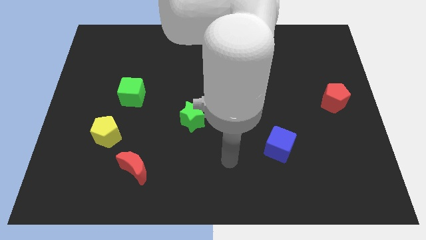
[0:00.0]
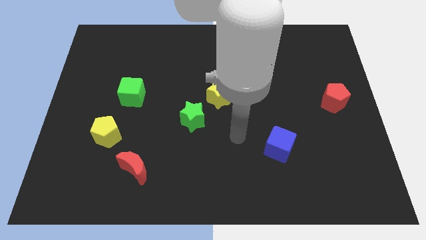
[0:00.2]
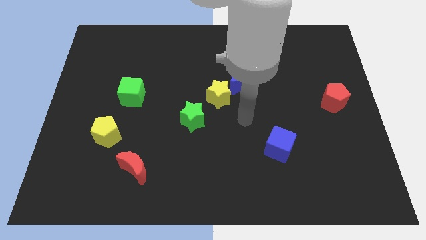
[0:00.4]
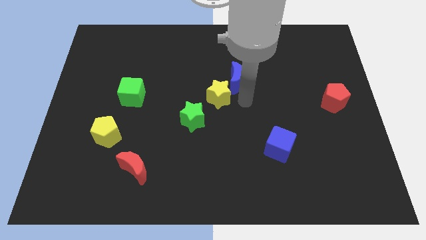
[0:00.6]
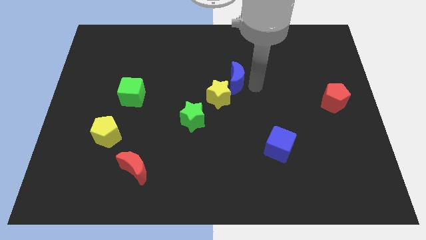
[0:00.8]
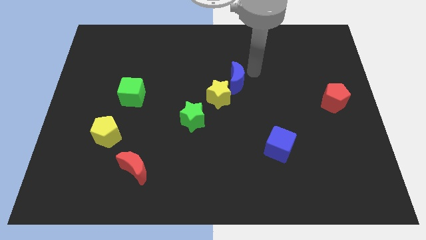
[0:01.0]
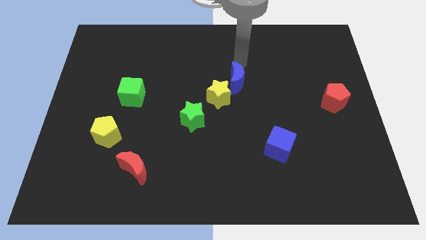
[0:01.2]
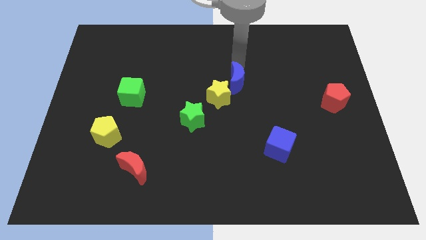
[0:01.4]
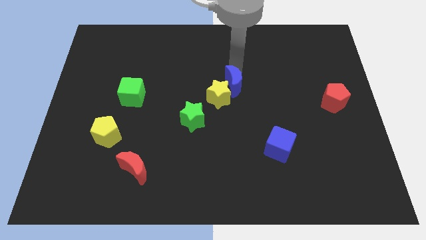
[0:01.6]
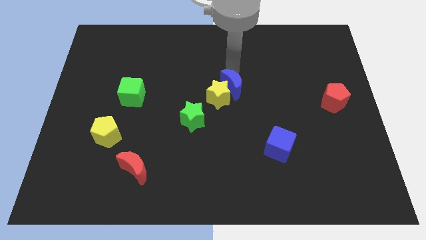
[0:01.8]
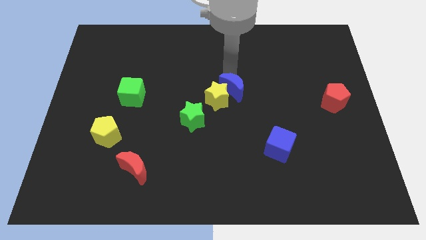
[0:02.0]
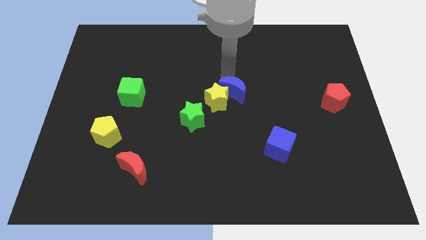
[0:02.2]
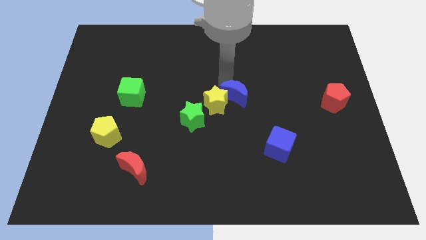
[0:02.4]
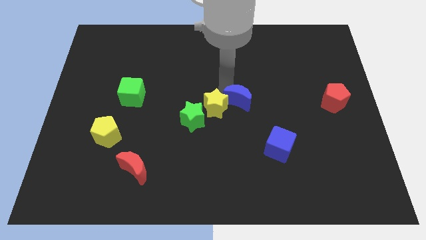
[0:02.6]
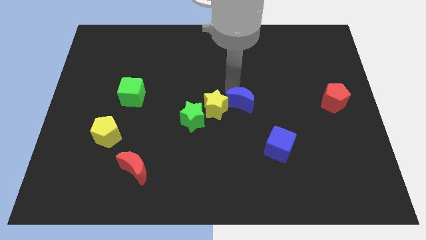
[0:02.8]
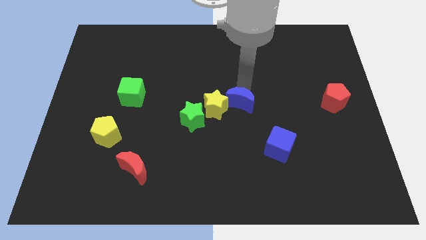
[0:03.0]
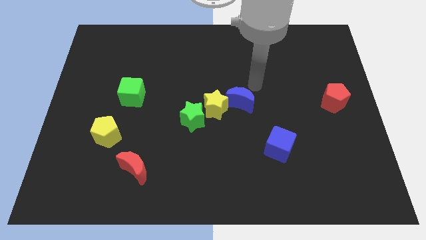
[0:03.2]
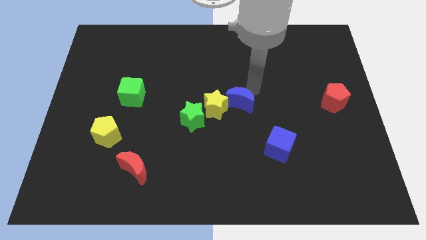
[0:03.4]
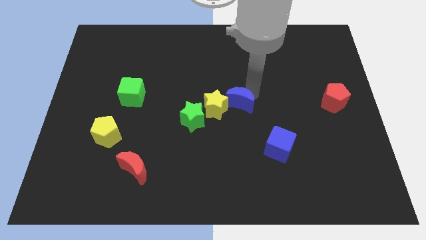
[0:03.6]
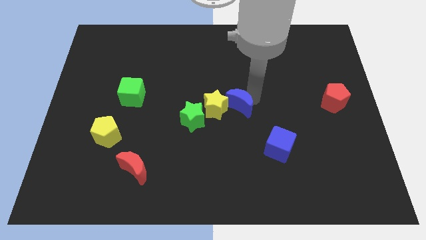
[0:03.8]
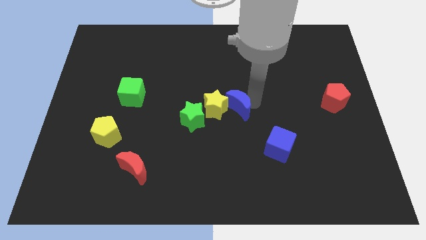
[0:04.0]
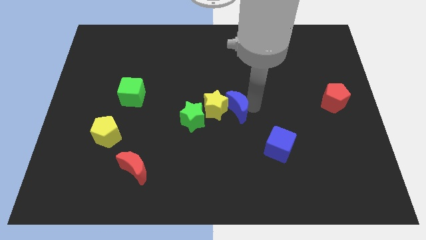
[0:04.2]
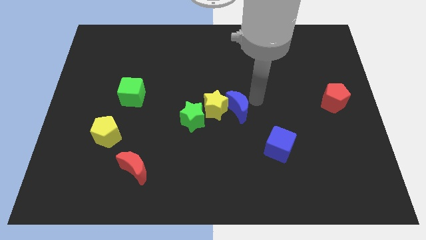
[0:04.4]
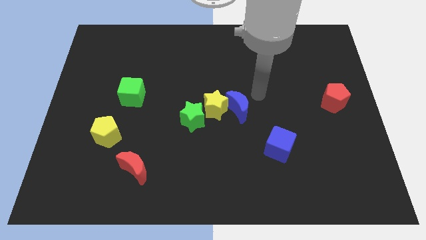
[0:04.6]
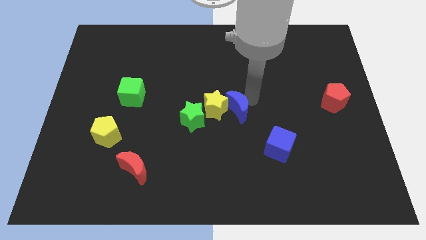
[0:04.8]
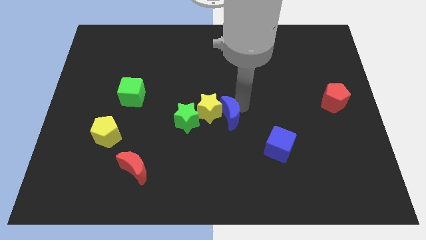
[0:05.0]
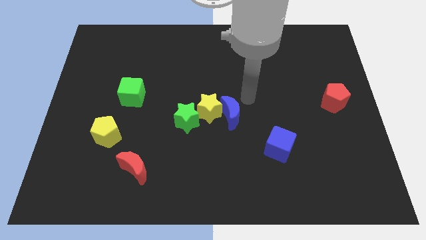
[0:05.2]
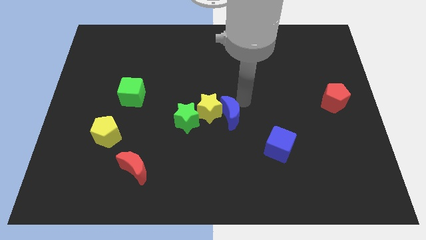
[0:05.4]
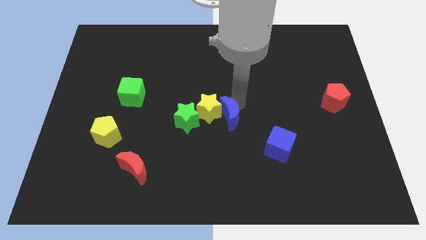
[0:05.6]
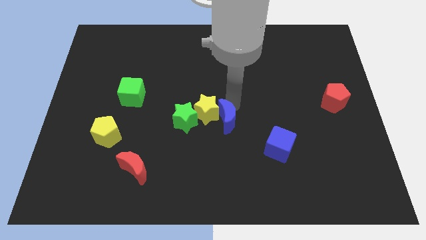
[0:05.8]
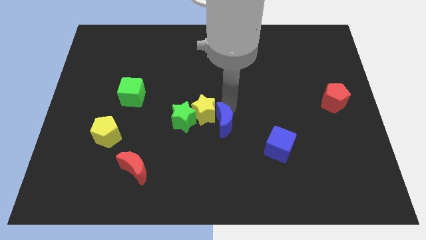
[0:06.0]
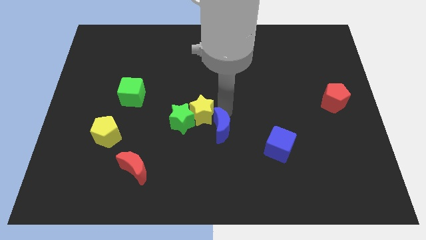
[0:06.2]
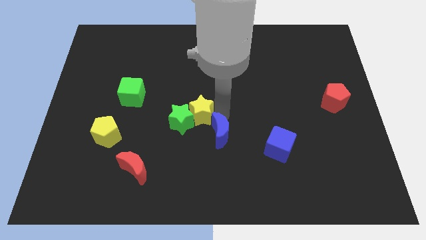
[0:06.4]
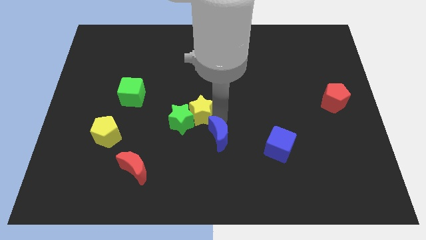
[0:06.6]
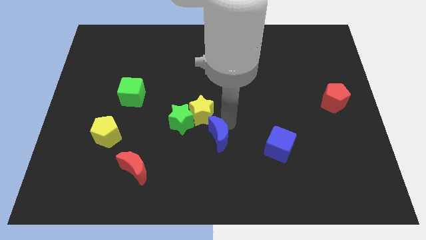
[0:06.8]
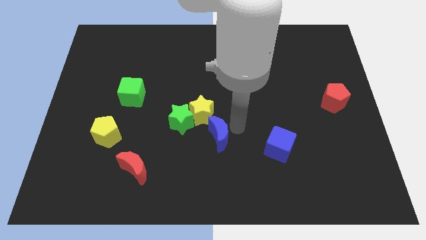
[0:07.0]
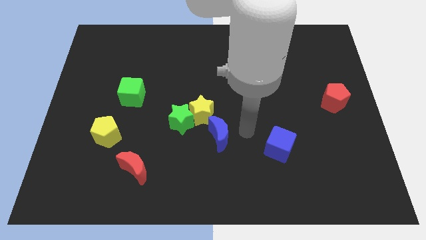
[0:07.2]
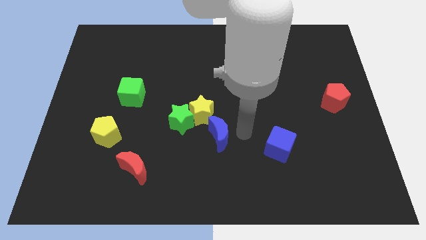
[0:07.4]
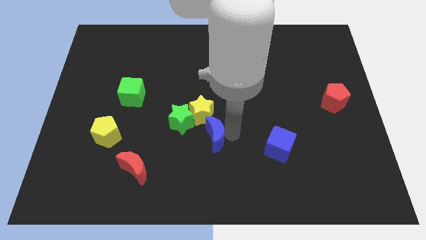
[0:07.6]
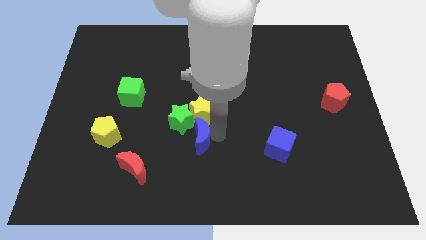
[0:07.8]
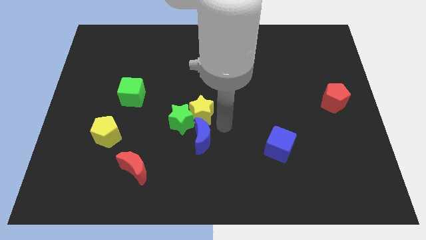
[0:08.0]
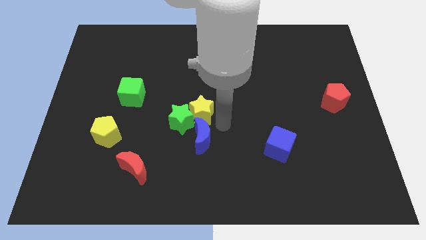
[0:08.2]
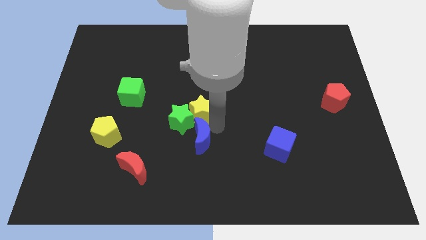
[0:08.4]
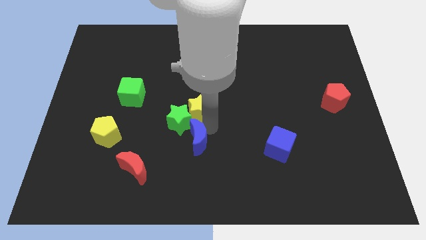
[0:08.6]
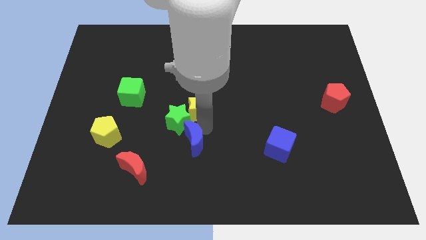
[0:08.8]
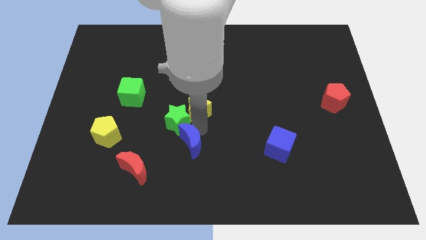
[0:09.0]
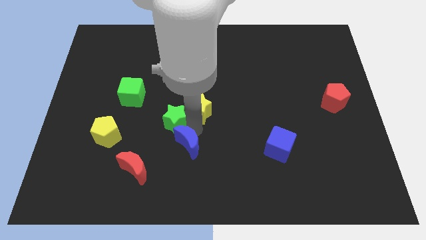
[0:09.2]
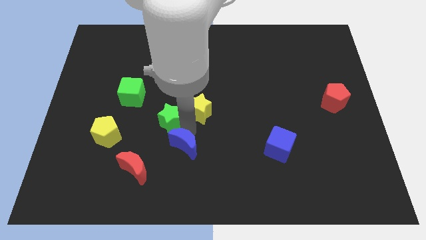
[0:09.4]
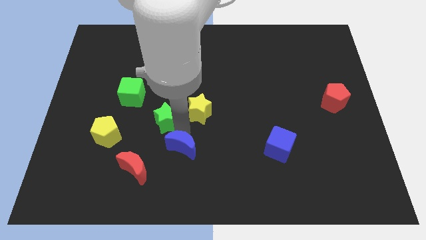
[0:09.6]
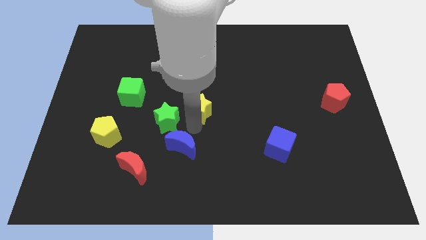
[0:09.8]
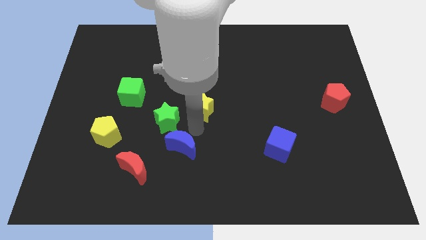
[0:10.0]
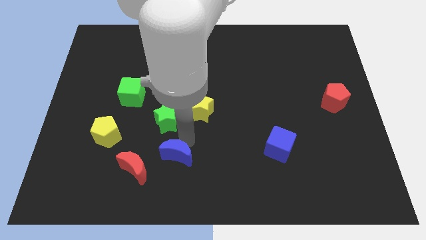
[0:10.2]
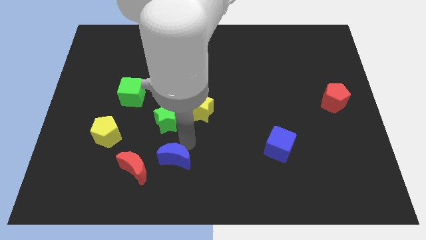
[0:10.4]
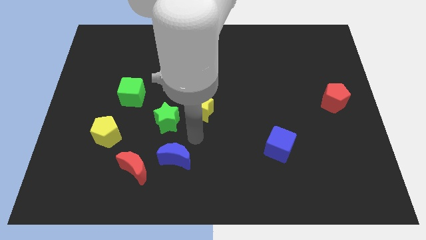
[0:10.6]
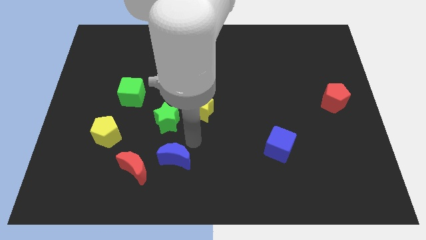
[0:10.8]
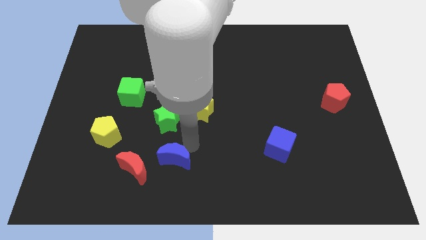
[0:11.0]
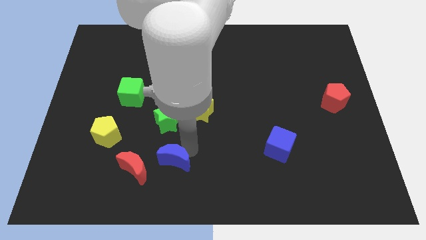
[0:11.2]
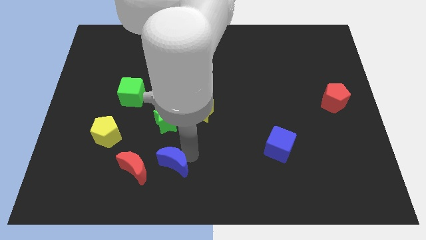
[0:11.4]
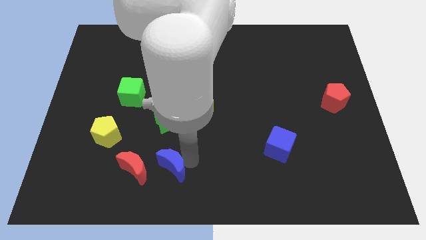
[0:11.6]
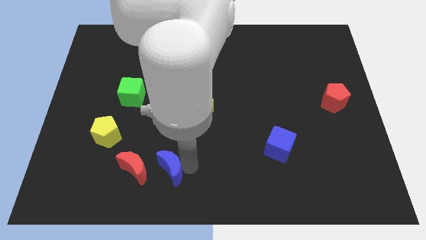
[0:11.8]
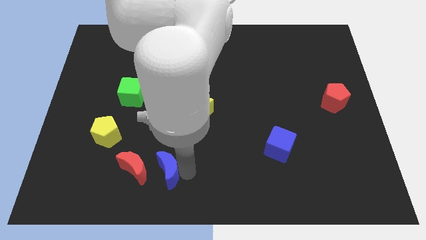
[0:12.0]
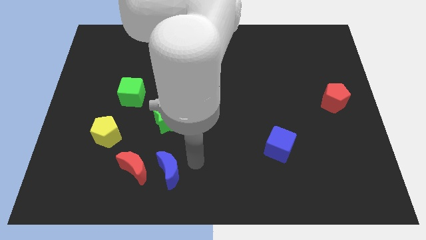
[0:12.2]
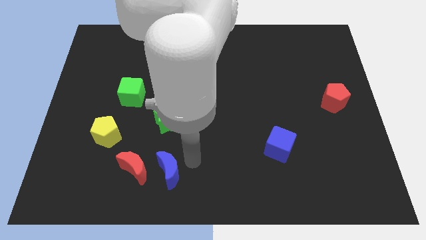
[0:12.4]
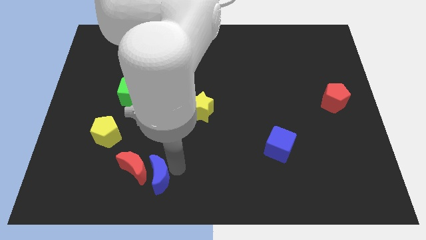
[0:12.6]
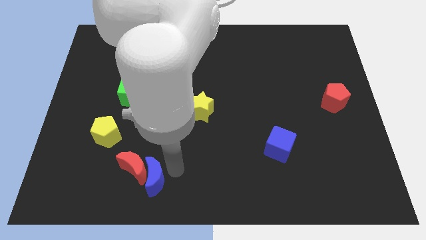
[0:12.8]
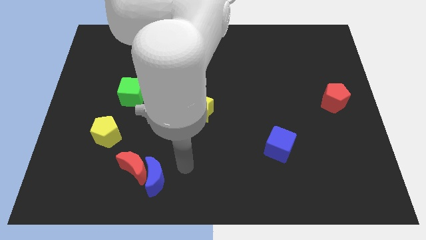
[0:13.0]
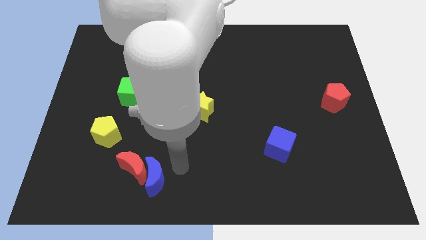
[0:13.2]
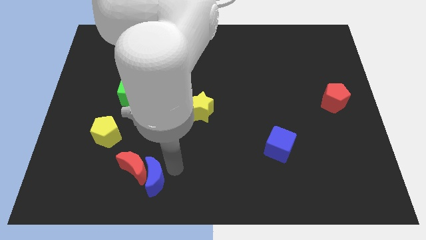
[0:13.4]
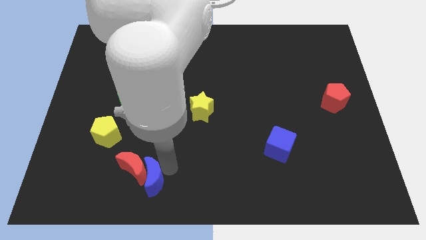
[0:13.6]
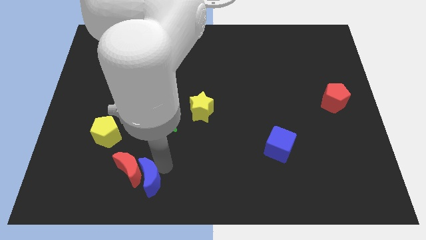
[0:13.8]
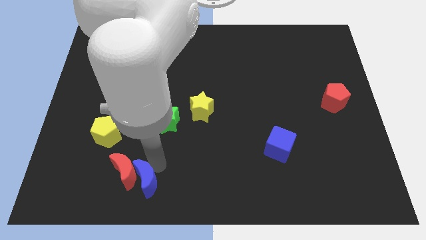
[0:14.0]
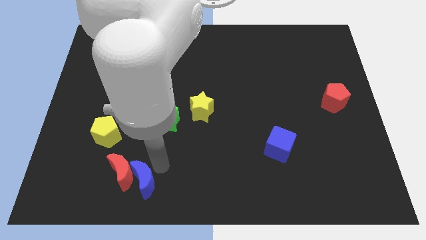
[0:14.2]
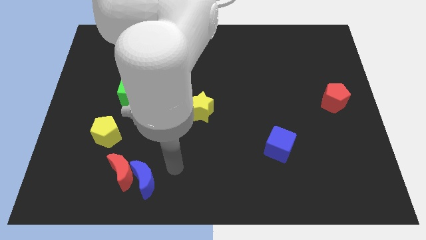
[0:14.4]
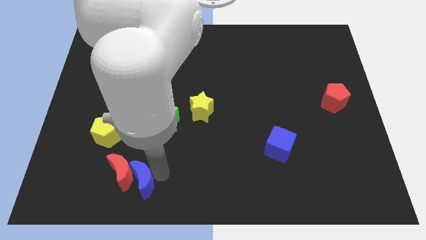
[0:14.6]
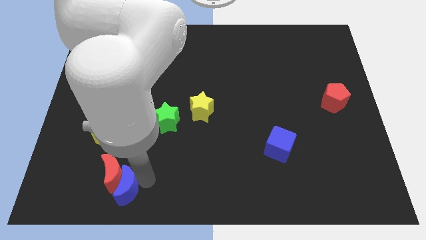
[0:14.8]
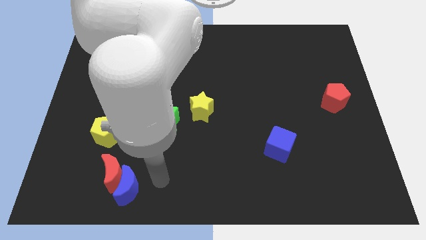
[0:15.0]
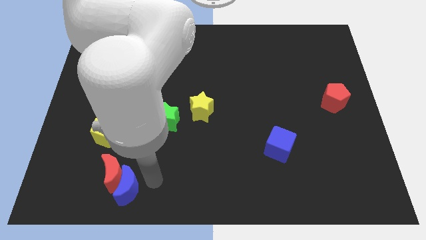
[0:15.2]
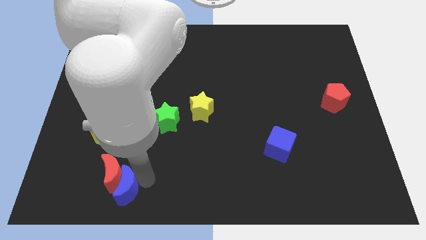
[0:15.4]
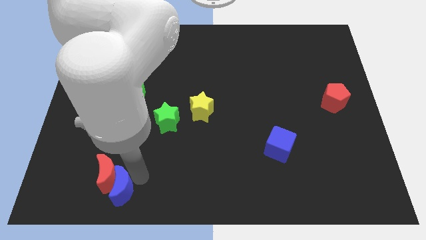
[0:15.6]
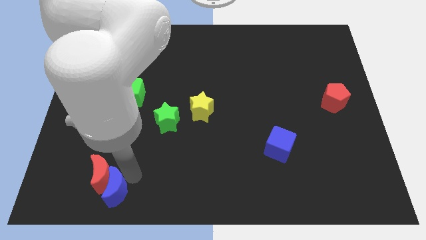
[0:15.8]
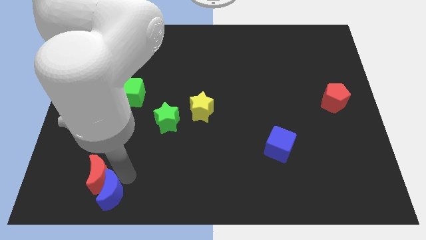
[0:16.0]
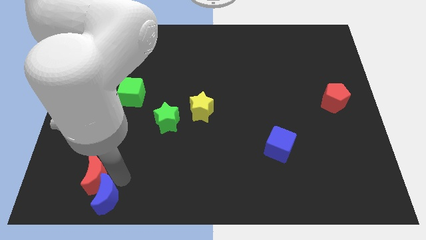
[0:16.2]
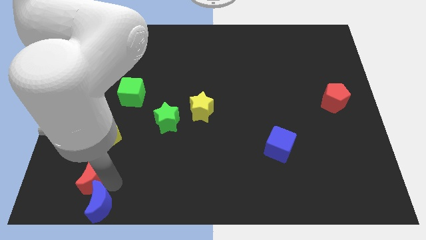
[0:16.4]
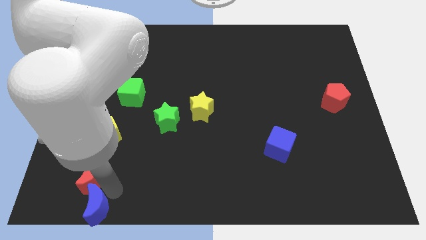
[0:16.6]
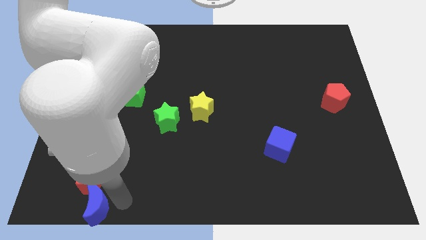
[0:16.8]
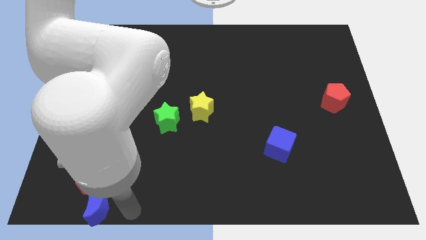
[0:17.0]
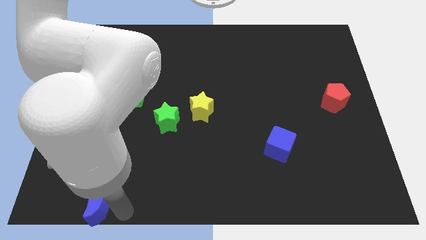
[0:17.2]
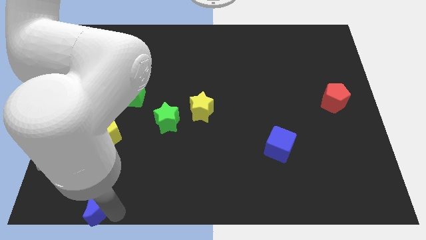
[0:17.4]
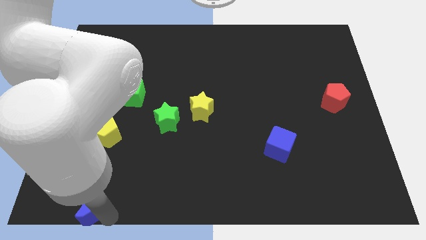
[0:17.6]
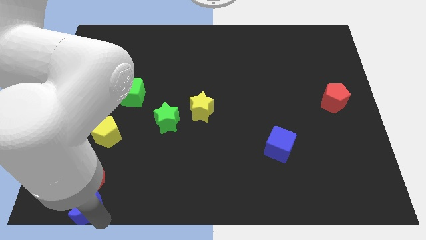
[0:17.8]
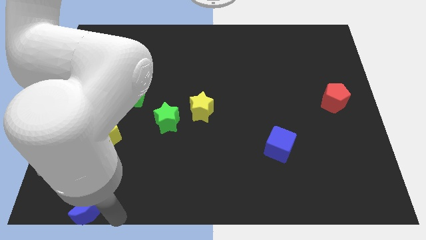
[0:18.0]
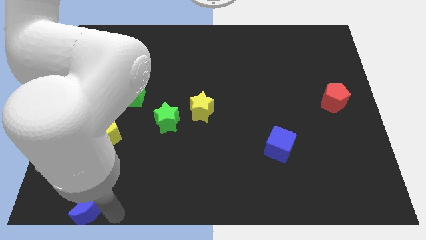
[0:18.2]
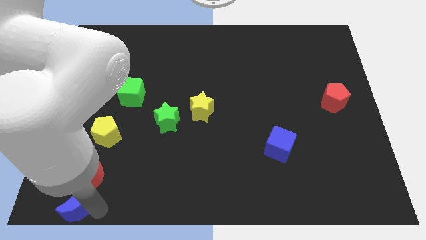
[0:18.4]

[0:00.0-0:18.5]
put the blue moon to the bottom left
